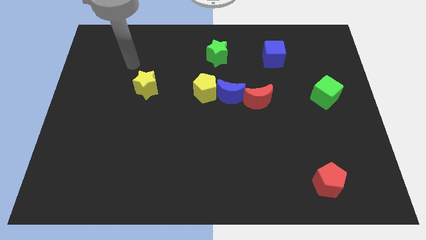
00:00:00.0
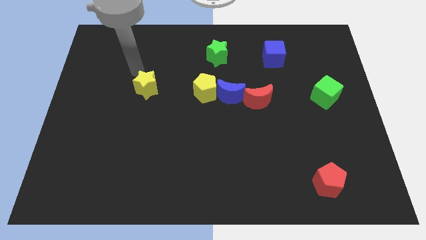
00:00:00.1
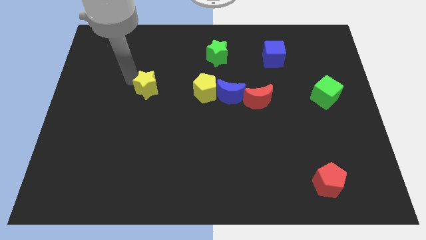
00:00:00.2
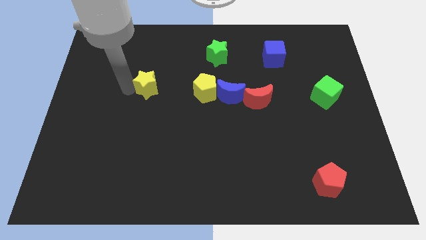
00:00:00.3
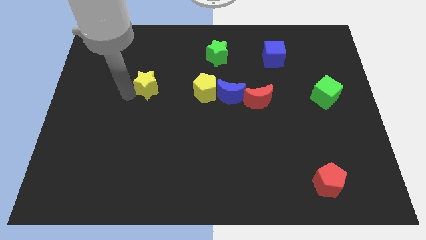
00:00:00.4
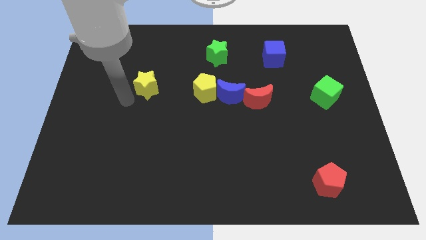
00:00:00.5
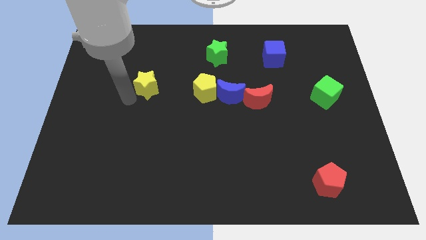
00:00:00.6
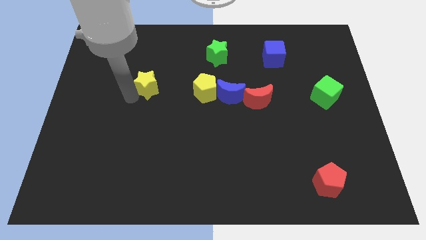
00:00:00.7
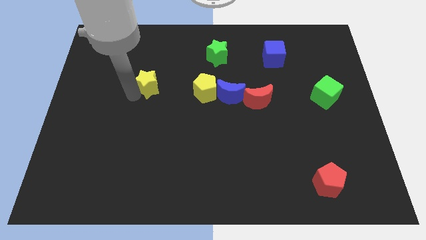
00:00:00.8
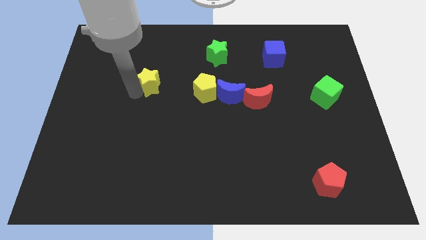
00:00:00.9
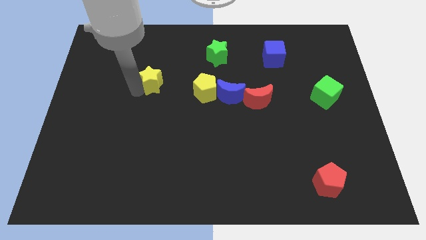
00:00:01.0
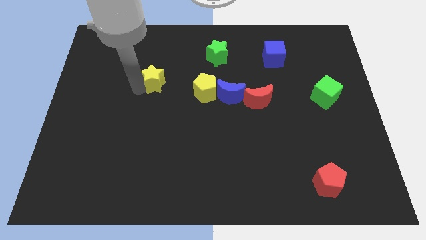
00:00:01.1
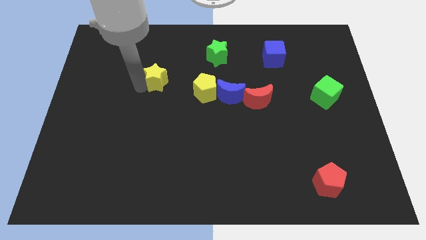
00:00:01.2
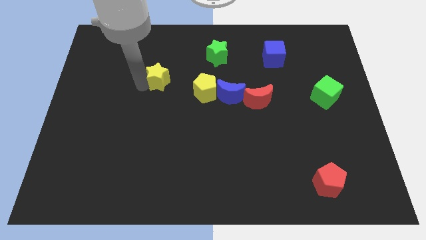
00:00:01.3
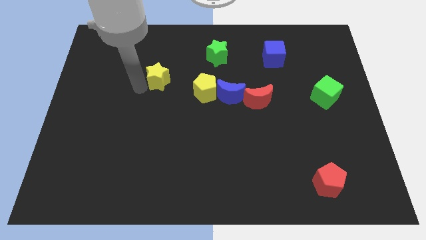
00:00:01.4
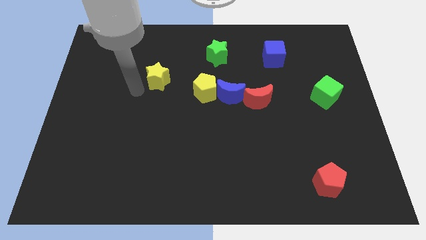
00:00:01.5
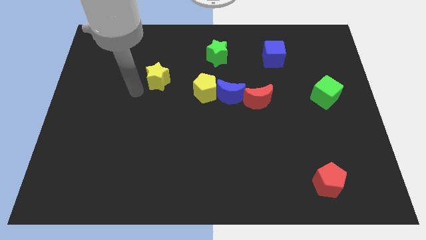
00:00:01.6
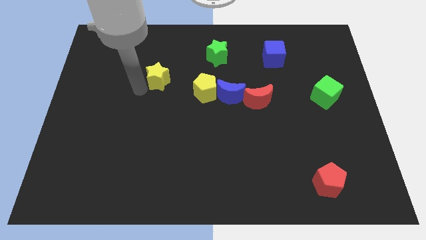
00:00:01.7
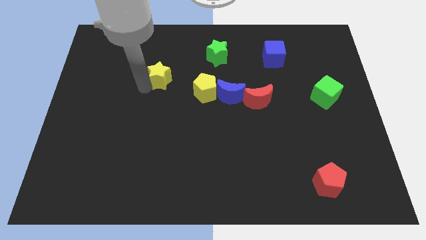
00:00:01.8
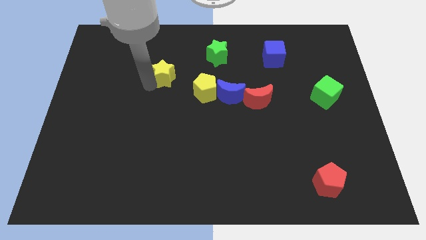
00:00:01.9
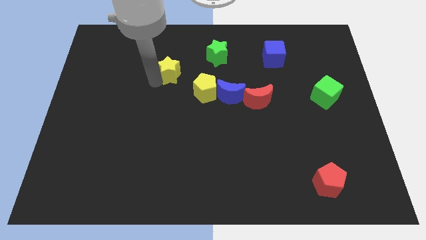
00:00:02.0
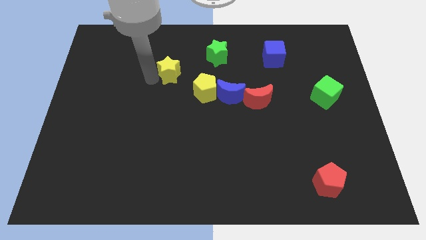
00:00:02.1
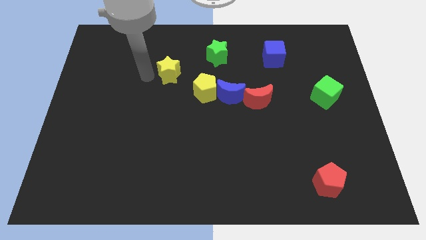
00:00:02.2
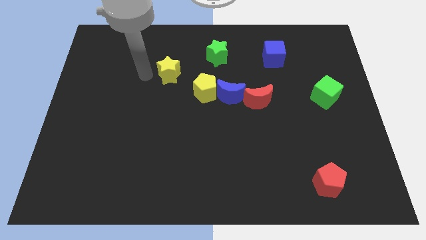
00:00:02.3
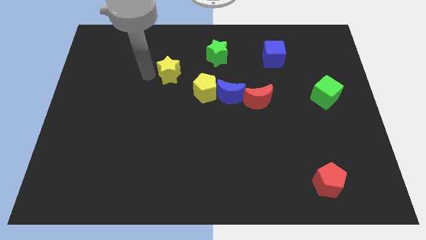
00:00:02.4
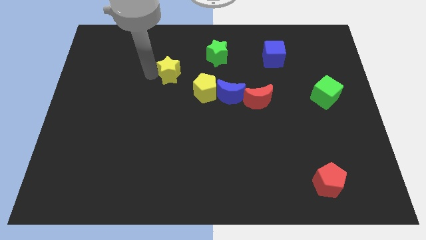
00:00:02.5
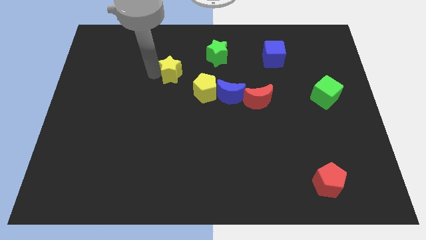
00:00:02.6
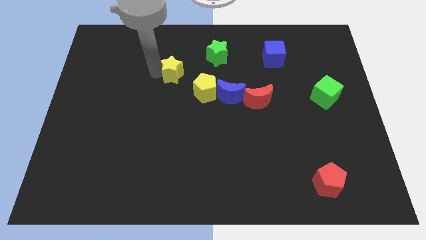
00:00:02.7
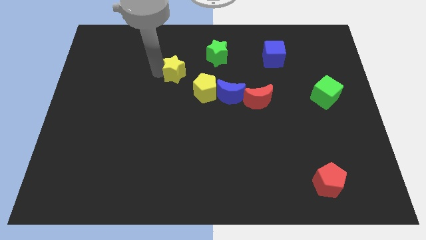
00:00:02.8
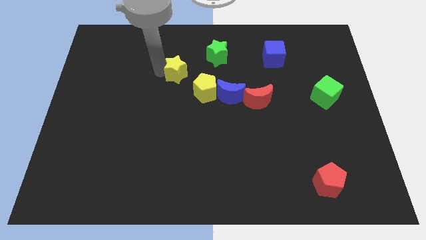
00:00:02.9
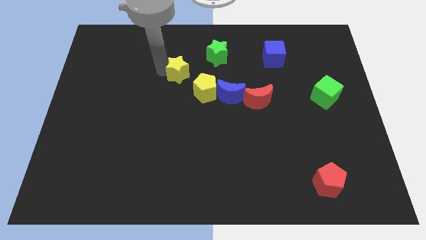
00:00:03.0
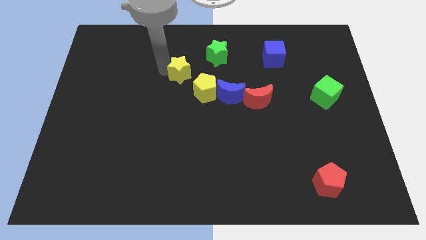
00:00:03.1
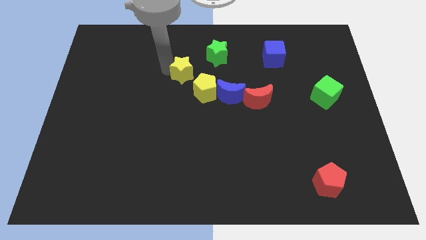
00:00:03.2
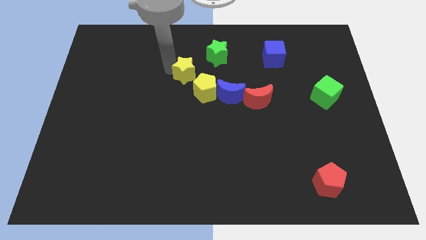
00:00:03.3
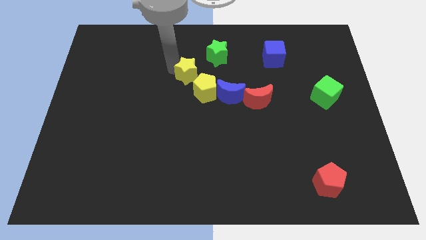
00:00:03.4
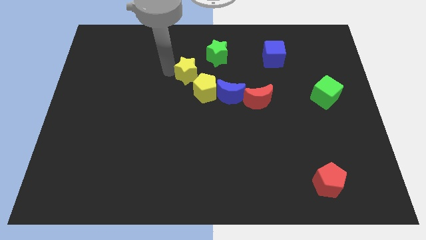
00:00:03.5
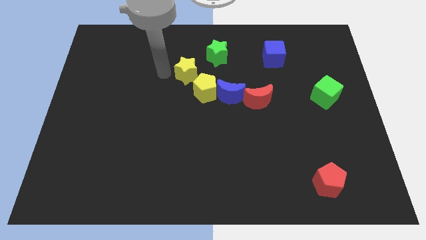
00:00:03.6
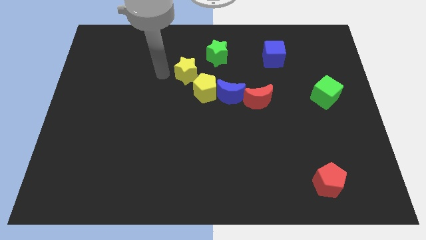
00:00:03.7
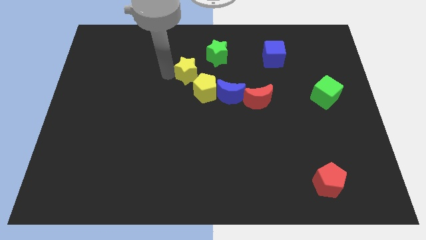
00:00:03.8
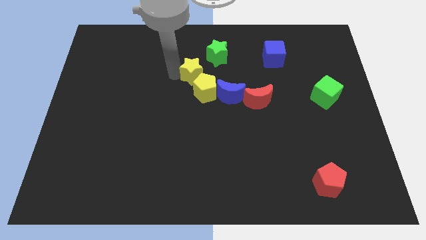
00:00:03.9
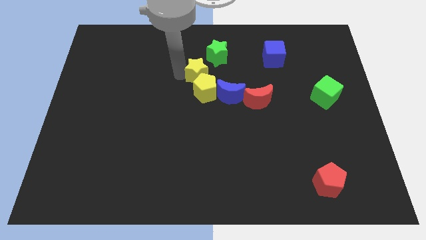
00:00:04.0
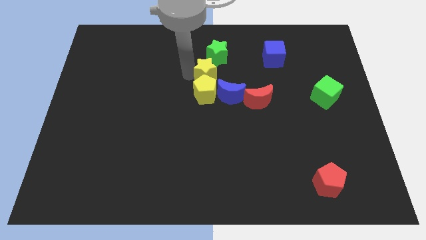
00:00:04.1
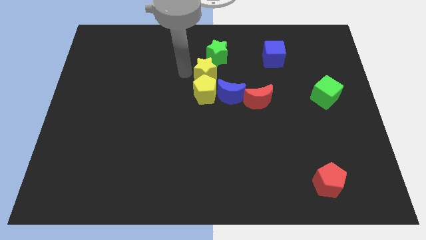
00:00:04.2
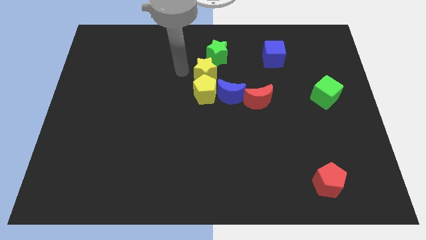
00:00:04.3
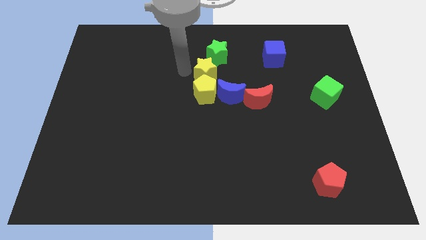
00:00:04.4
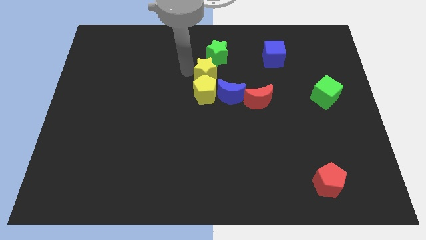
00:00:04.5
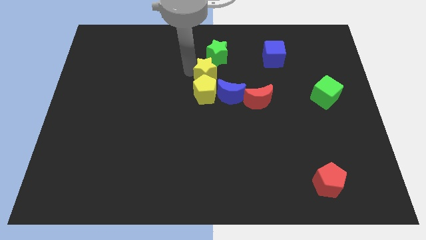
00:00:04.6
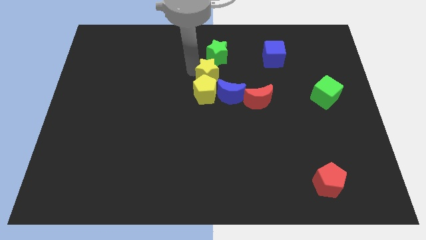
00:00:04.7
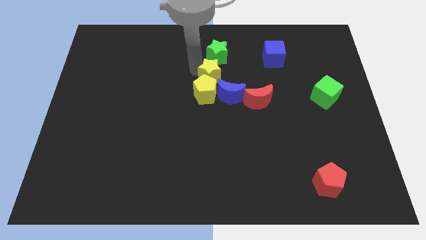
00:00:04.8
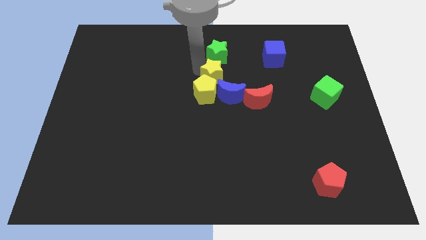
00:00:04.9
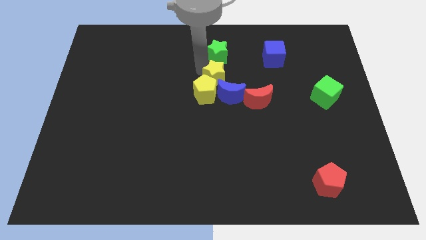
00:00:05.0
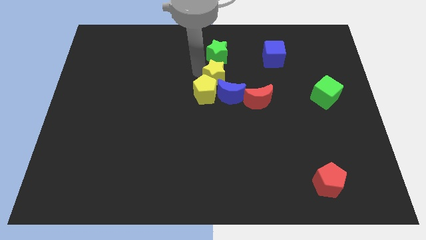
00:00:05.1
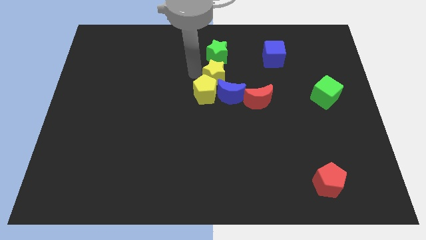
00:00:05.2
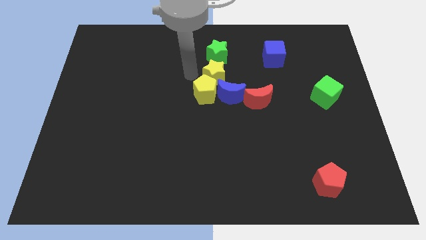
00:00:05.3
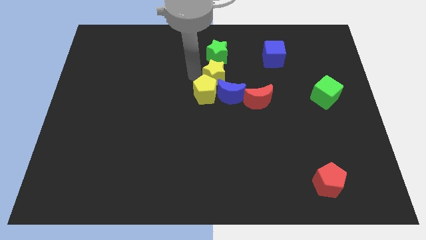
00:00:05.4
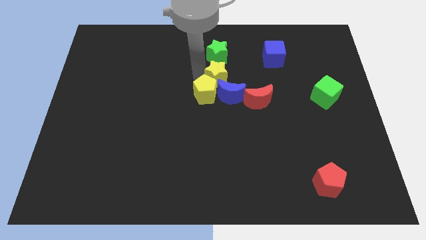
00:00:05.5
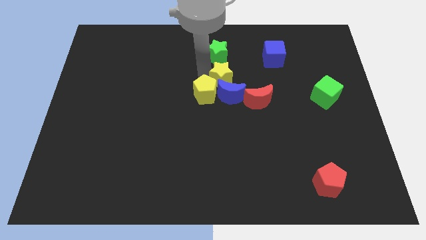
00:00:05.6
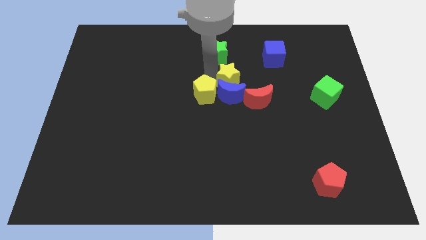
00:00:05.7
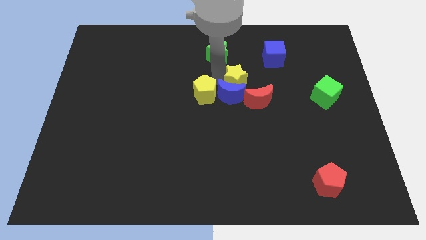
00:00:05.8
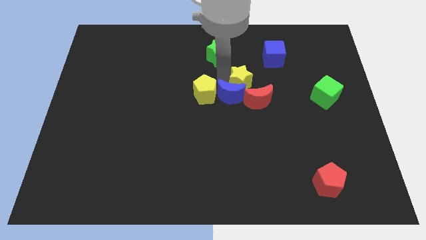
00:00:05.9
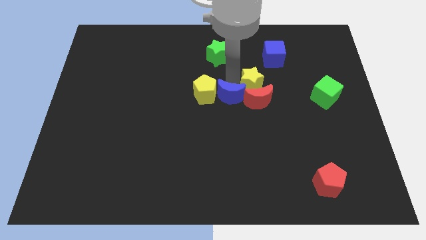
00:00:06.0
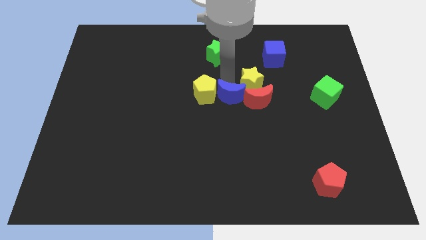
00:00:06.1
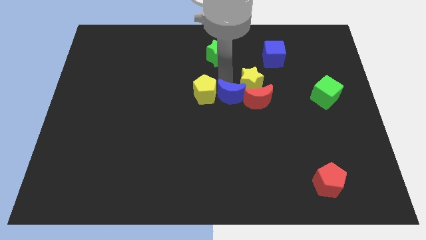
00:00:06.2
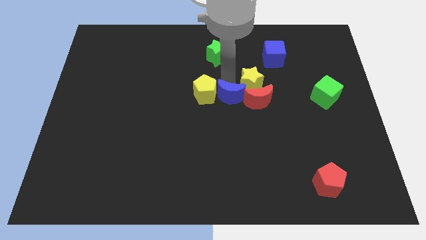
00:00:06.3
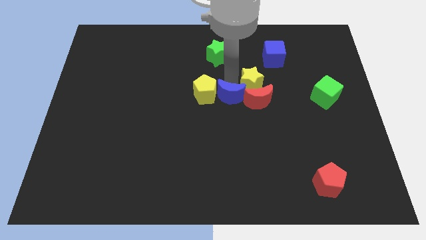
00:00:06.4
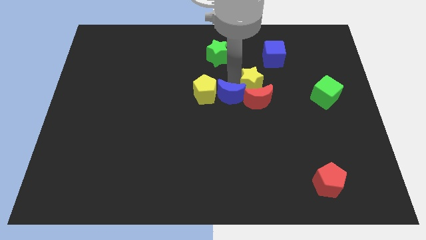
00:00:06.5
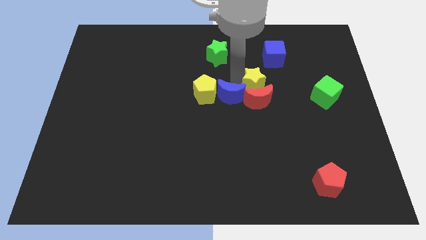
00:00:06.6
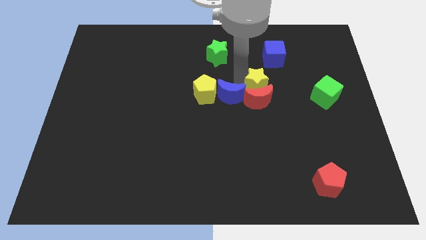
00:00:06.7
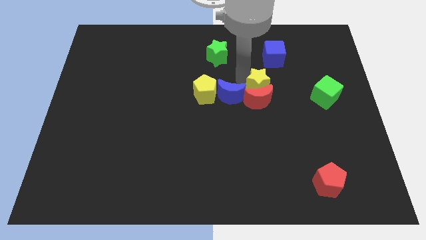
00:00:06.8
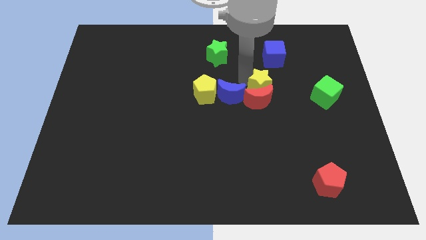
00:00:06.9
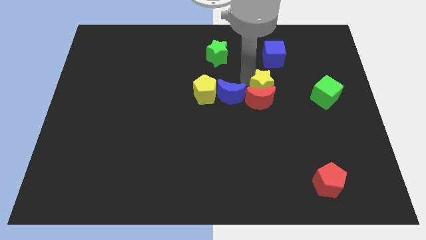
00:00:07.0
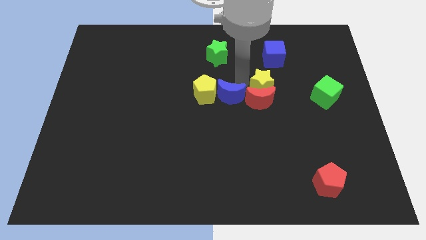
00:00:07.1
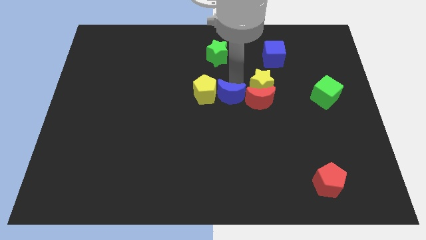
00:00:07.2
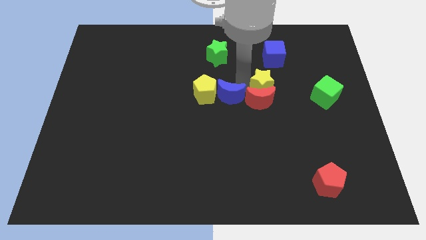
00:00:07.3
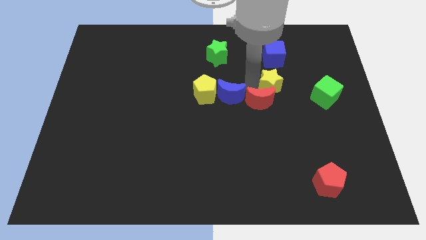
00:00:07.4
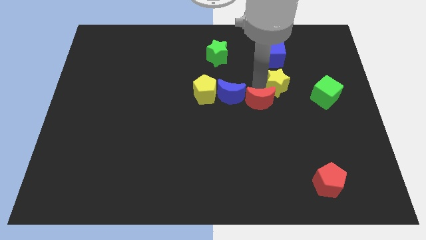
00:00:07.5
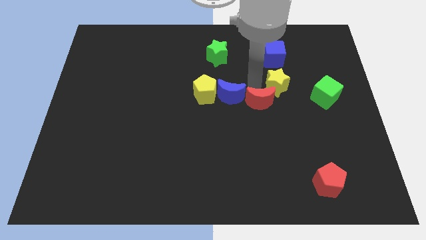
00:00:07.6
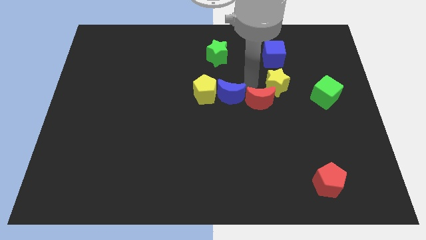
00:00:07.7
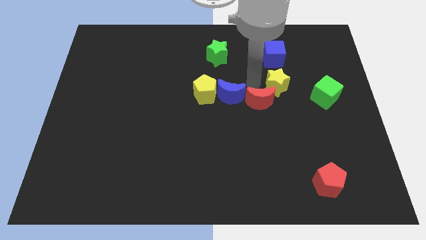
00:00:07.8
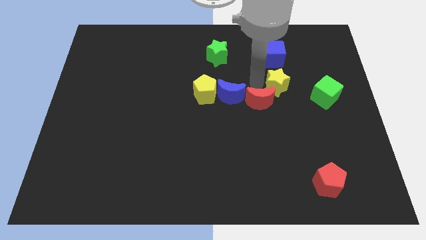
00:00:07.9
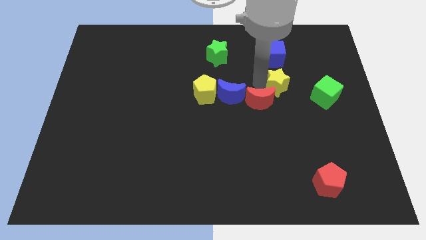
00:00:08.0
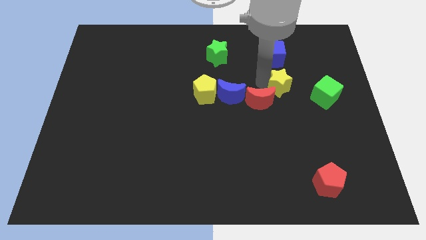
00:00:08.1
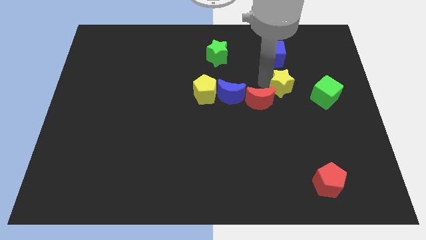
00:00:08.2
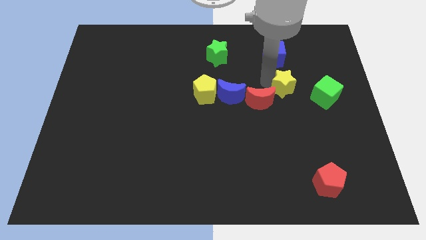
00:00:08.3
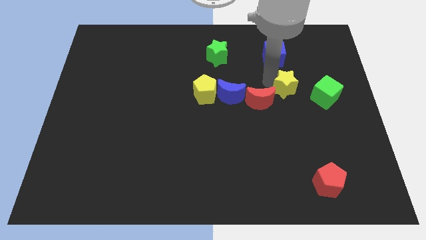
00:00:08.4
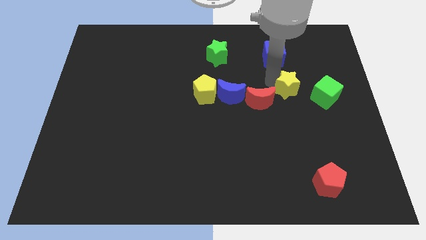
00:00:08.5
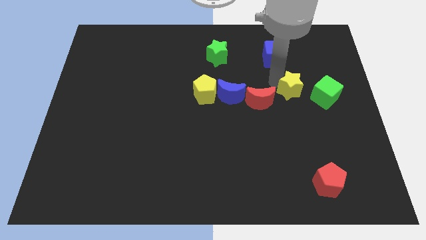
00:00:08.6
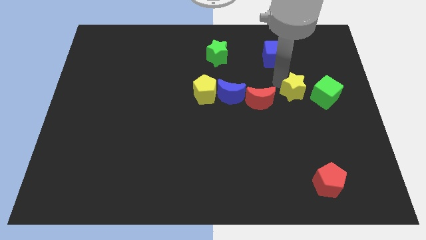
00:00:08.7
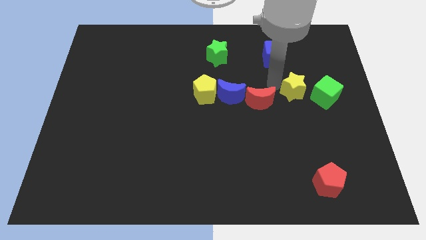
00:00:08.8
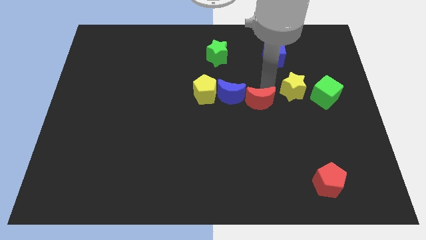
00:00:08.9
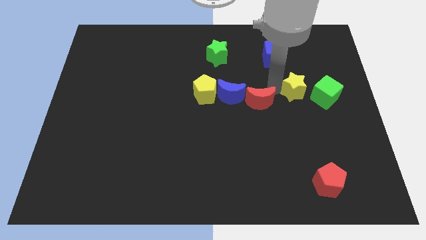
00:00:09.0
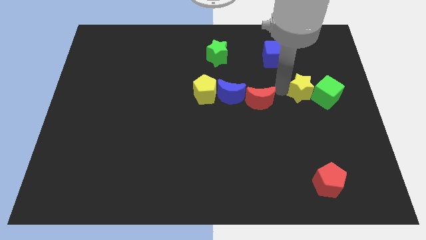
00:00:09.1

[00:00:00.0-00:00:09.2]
move the yellow star next to the green cube
